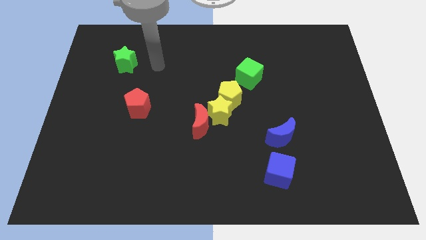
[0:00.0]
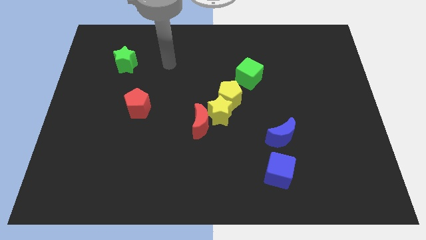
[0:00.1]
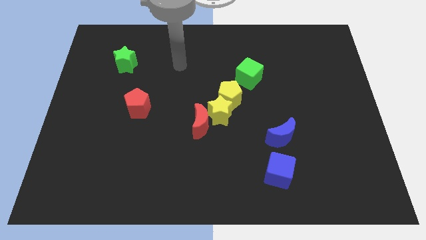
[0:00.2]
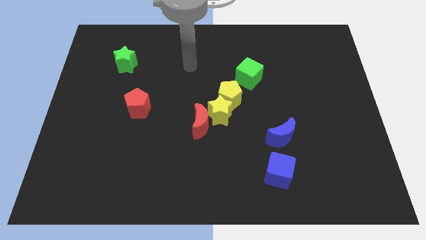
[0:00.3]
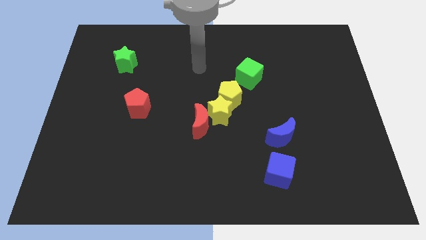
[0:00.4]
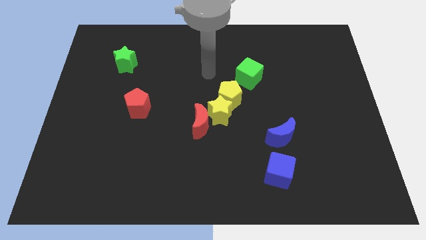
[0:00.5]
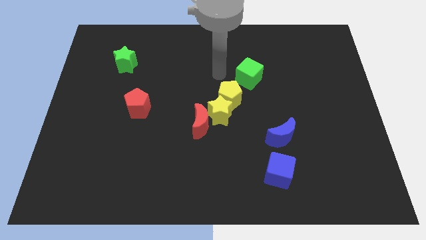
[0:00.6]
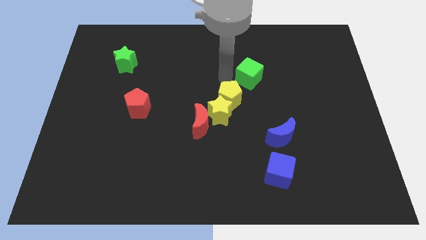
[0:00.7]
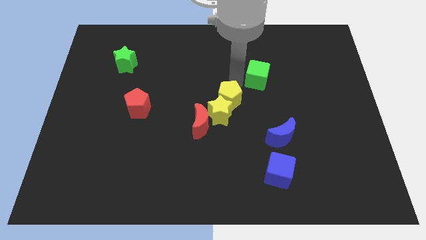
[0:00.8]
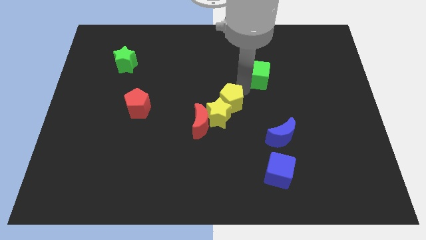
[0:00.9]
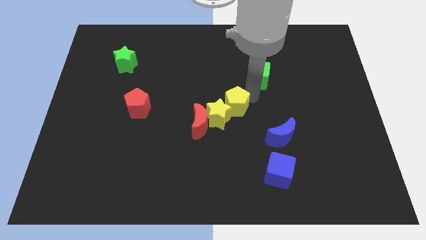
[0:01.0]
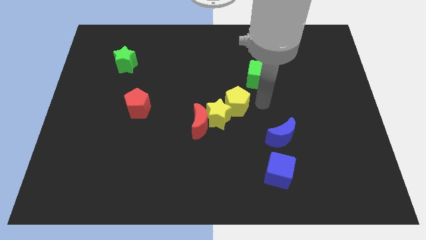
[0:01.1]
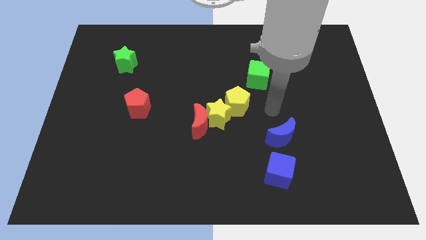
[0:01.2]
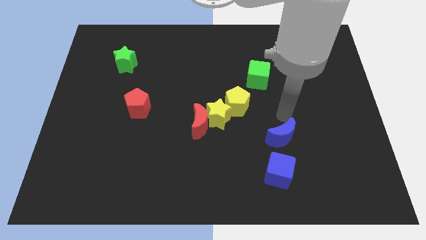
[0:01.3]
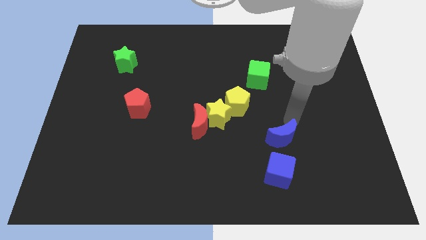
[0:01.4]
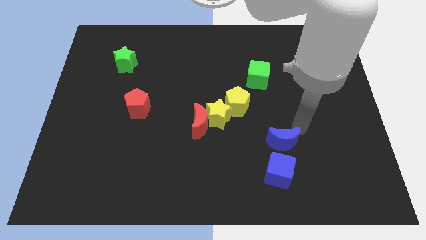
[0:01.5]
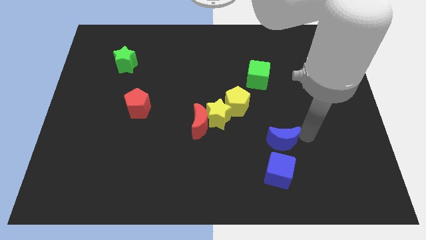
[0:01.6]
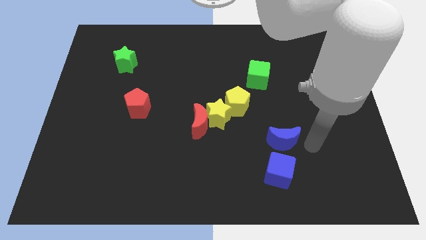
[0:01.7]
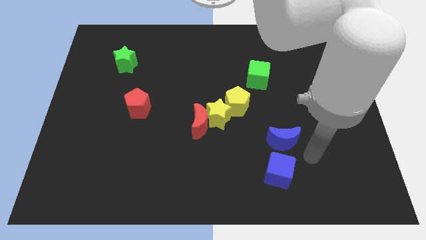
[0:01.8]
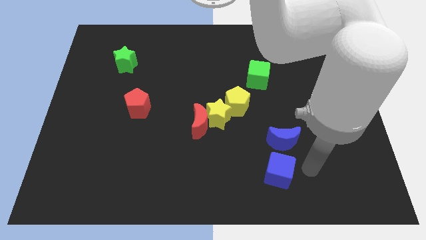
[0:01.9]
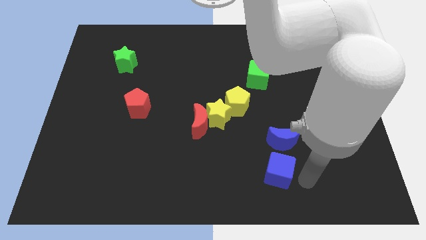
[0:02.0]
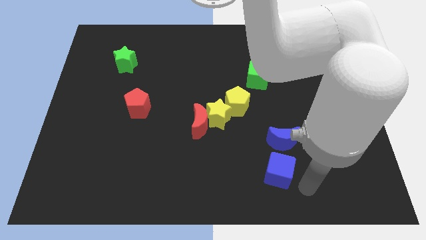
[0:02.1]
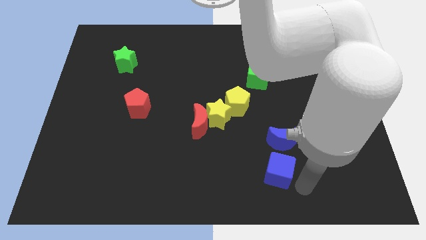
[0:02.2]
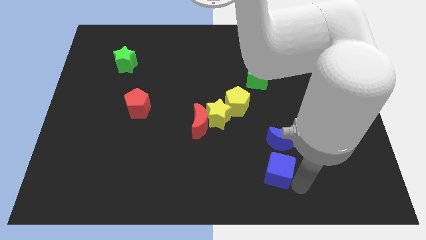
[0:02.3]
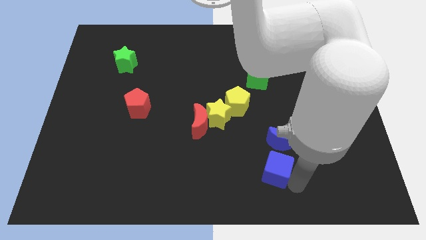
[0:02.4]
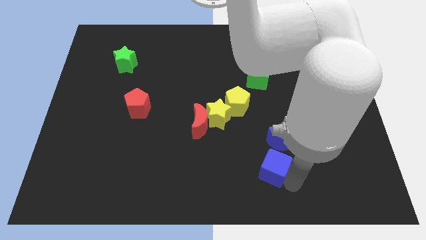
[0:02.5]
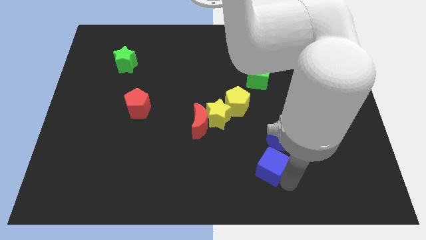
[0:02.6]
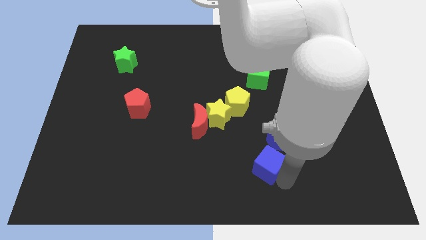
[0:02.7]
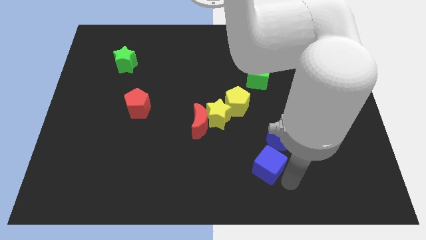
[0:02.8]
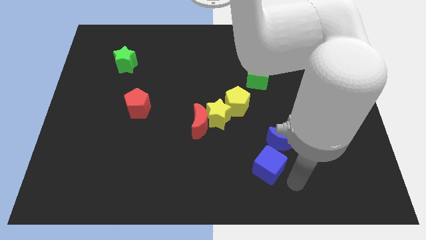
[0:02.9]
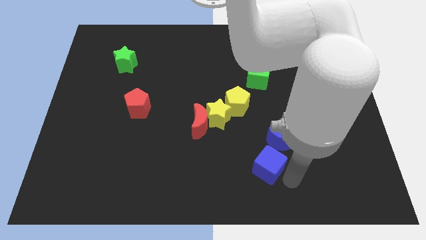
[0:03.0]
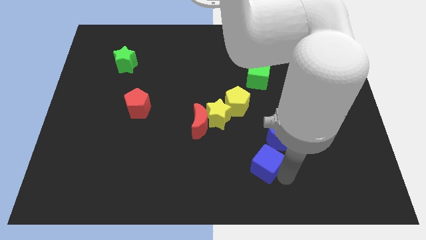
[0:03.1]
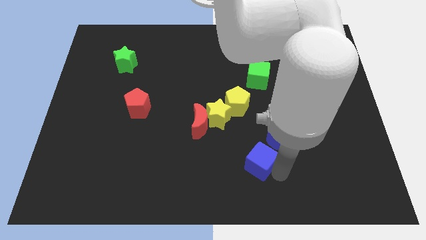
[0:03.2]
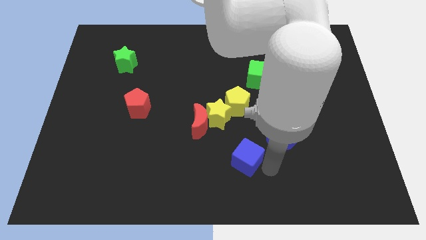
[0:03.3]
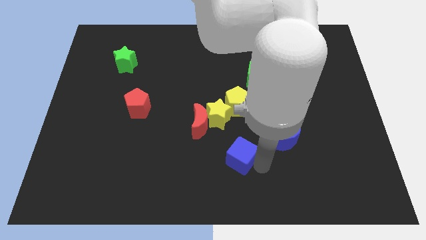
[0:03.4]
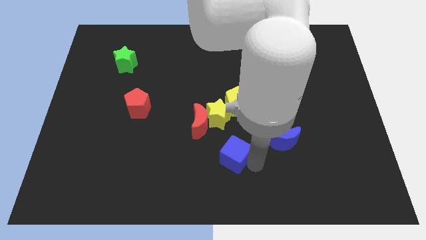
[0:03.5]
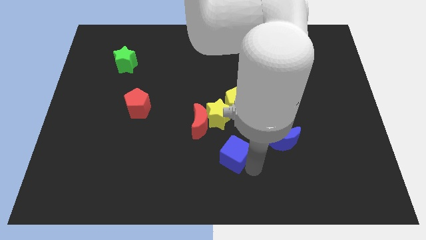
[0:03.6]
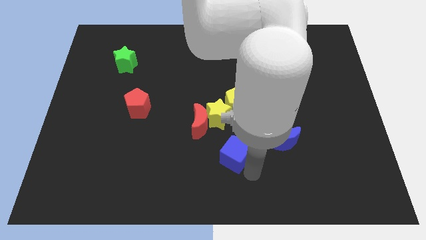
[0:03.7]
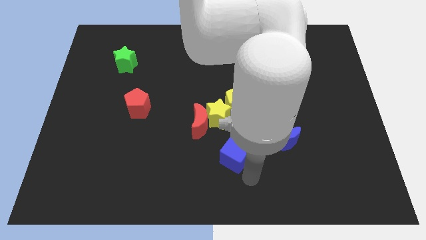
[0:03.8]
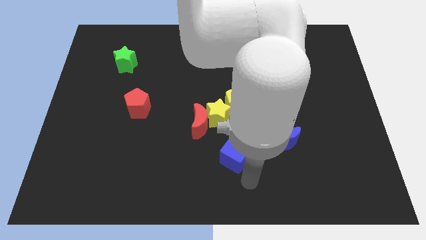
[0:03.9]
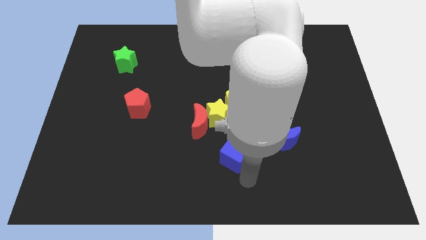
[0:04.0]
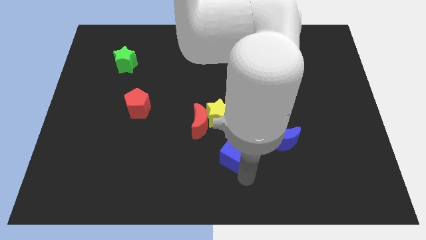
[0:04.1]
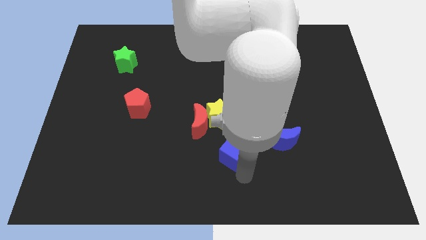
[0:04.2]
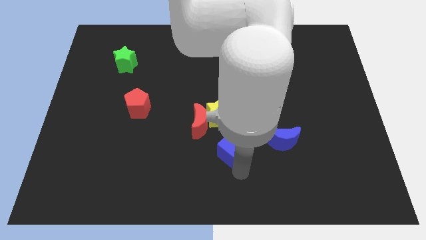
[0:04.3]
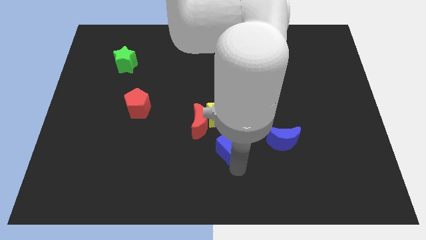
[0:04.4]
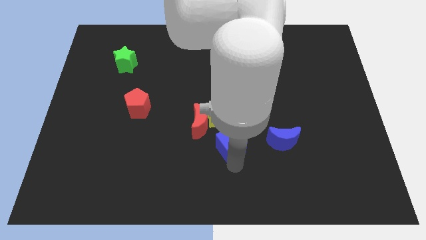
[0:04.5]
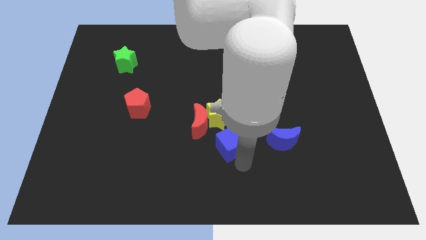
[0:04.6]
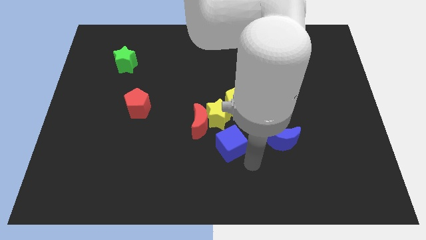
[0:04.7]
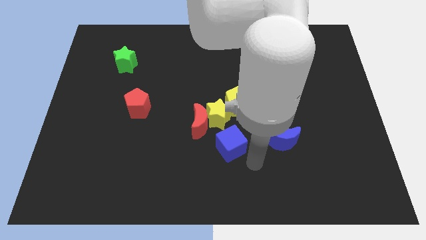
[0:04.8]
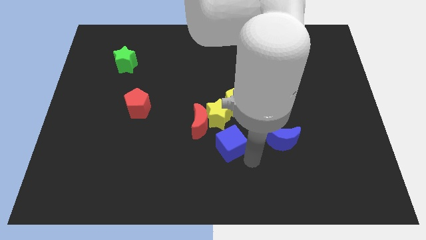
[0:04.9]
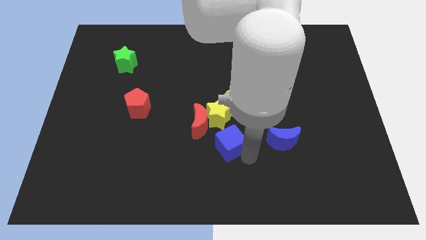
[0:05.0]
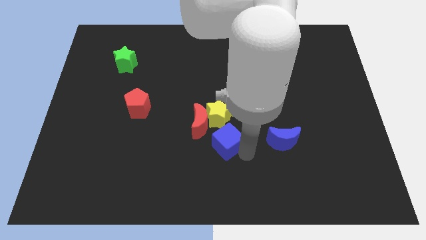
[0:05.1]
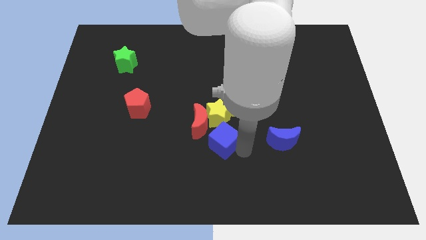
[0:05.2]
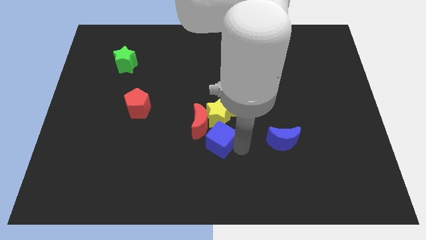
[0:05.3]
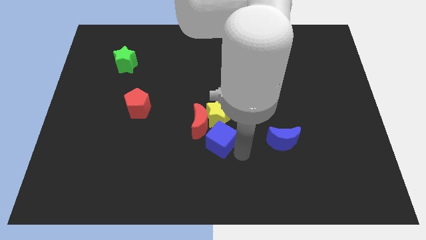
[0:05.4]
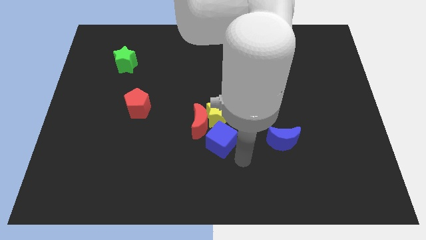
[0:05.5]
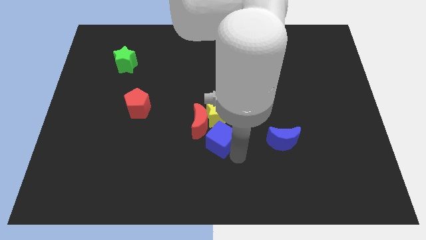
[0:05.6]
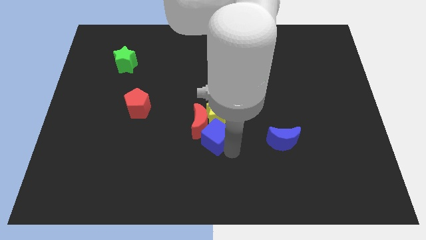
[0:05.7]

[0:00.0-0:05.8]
push the blue cube towards the red moon

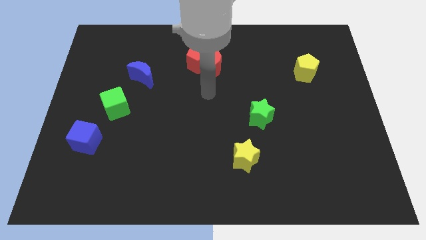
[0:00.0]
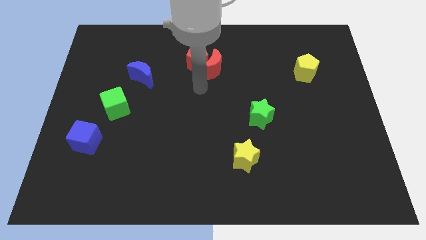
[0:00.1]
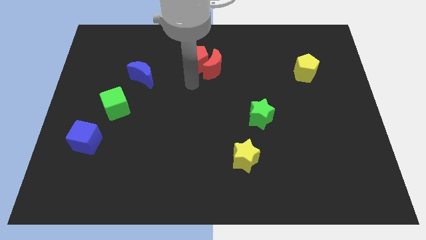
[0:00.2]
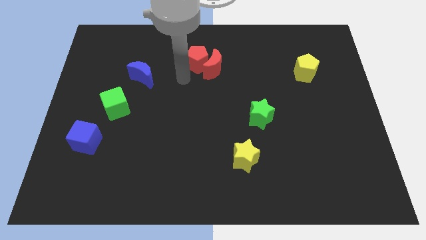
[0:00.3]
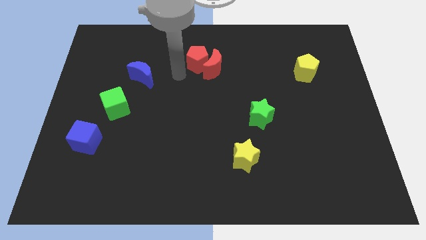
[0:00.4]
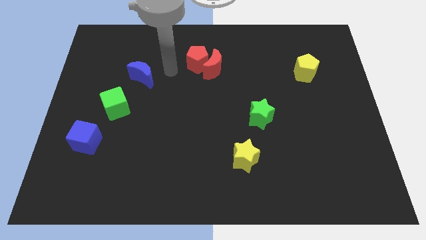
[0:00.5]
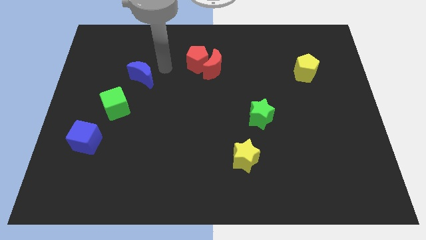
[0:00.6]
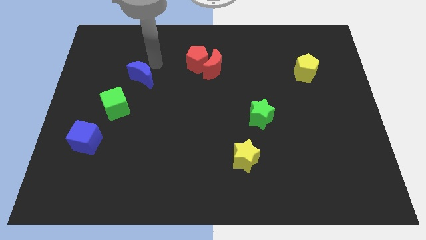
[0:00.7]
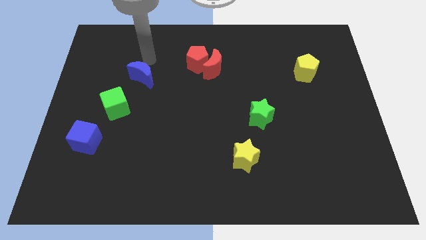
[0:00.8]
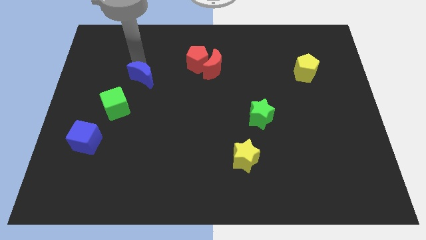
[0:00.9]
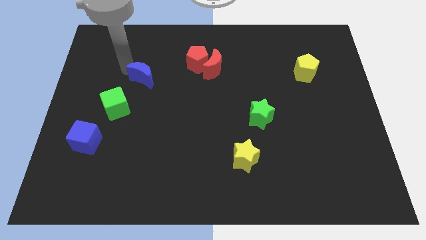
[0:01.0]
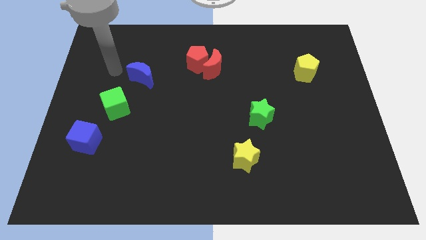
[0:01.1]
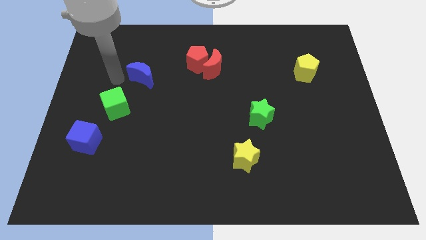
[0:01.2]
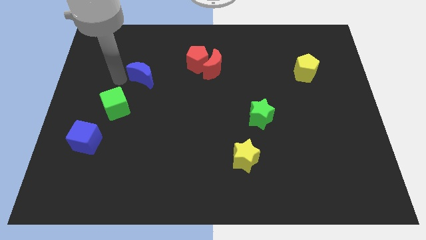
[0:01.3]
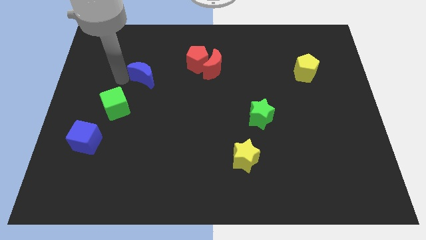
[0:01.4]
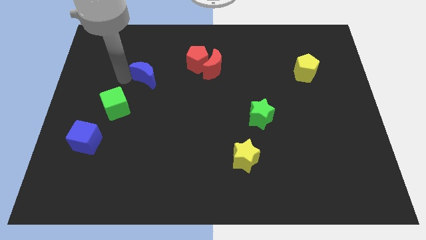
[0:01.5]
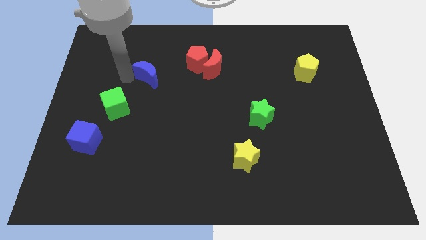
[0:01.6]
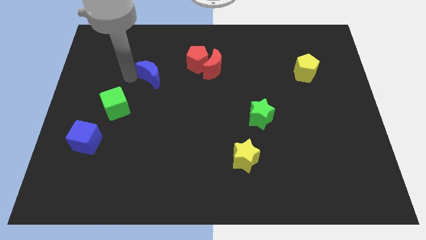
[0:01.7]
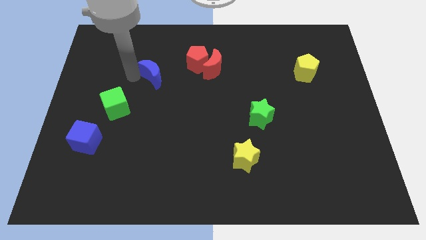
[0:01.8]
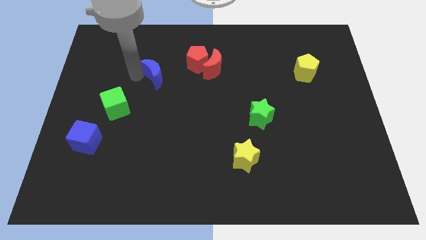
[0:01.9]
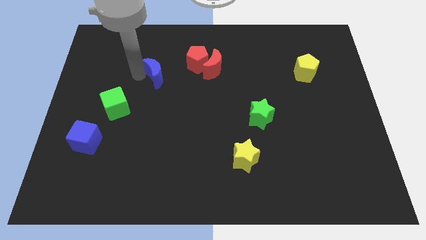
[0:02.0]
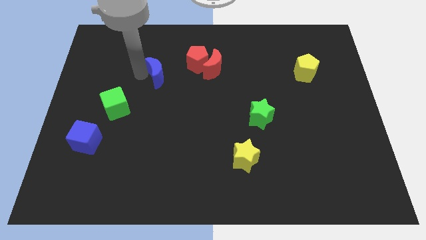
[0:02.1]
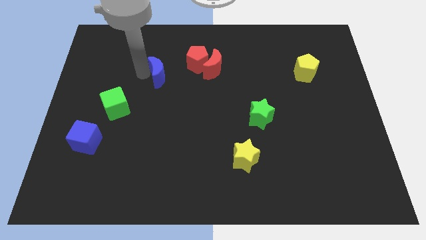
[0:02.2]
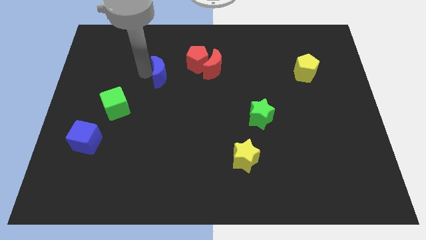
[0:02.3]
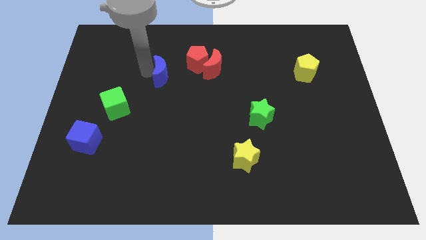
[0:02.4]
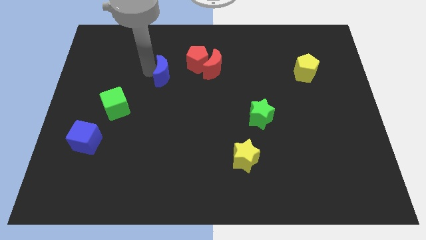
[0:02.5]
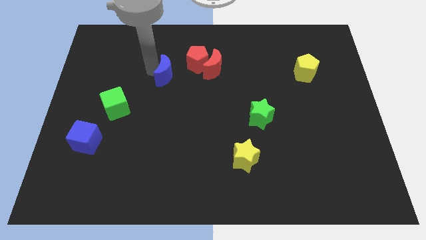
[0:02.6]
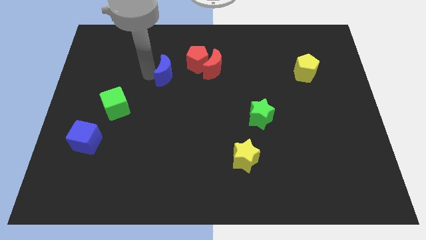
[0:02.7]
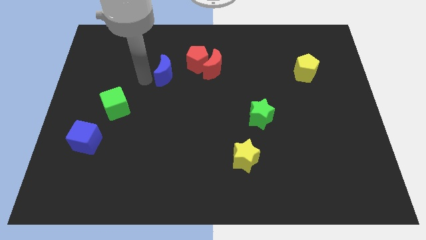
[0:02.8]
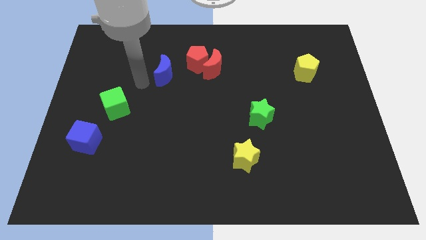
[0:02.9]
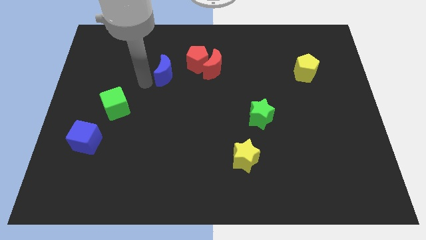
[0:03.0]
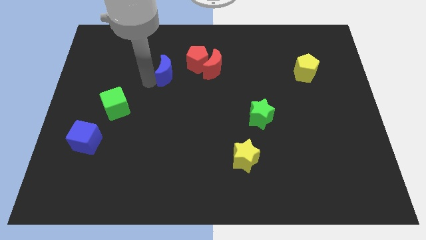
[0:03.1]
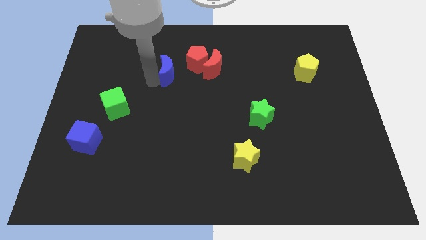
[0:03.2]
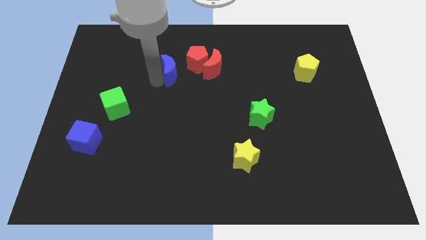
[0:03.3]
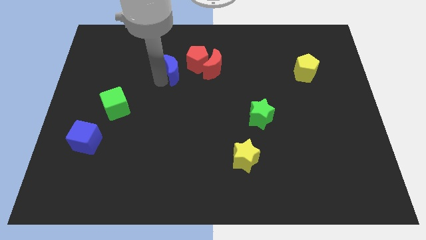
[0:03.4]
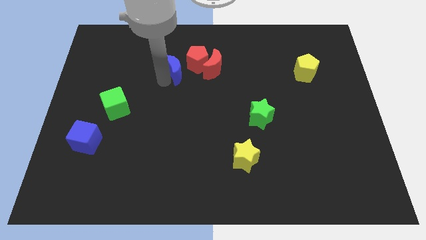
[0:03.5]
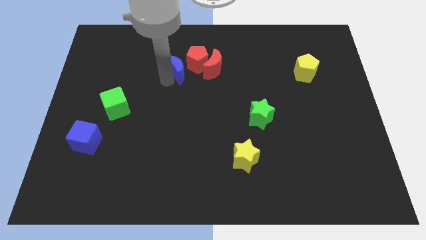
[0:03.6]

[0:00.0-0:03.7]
push the blue moon to the red pentagon
